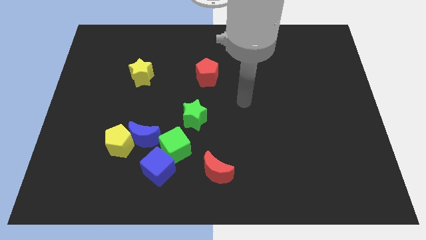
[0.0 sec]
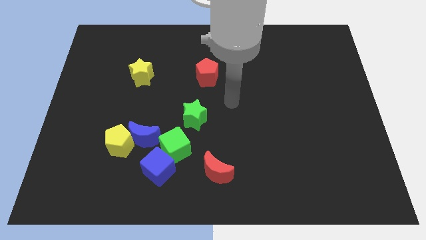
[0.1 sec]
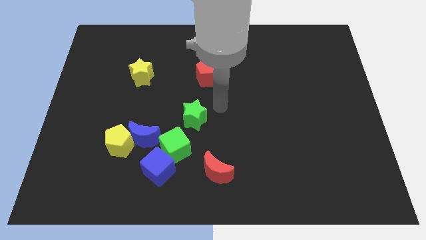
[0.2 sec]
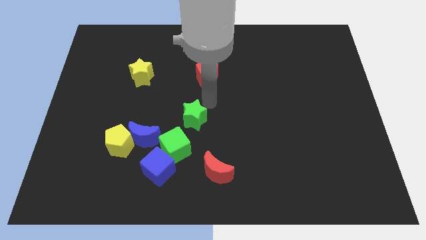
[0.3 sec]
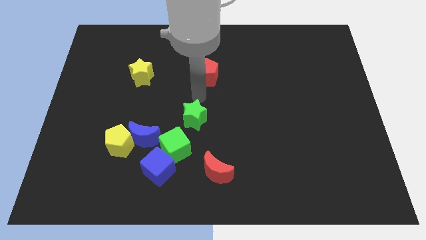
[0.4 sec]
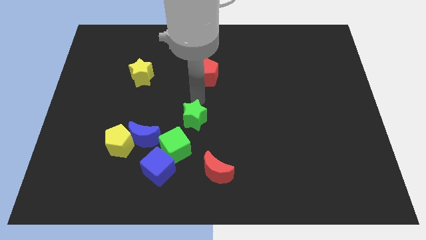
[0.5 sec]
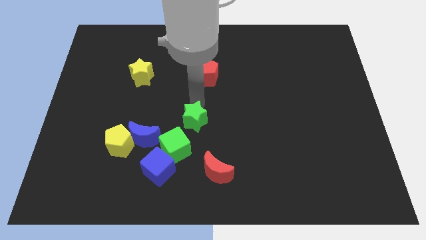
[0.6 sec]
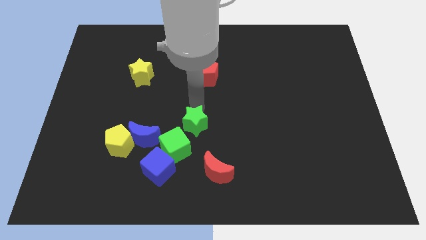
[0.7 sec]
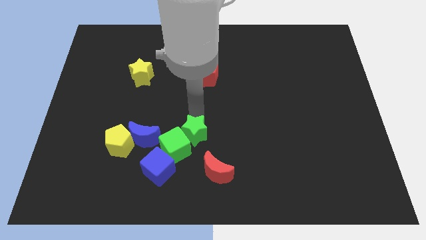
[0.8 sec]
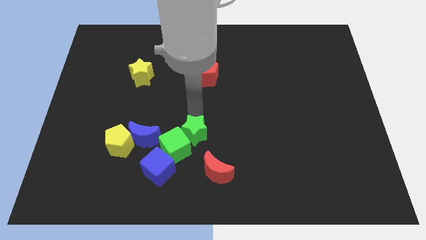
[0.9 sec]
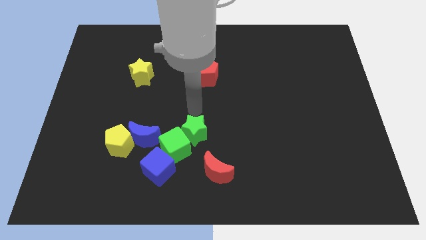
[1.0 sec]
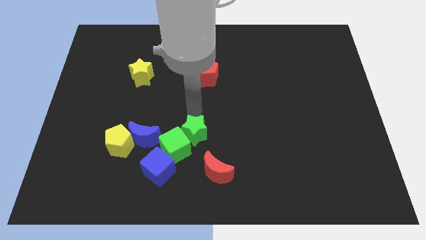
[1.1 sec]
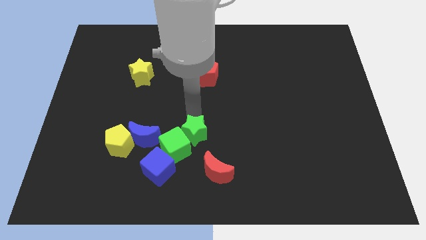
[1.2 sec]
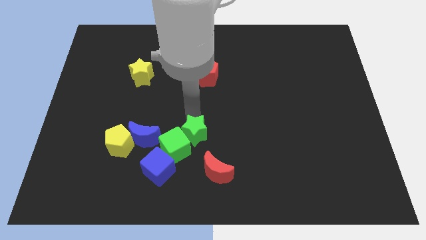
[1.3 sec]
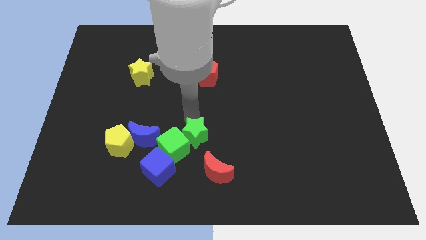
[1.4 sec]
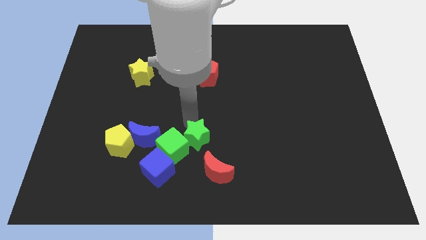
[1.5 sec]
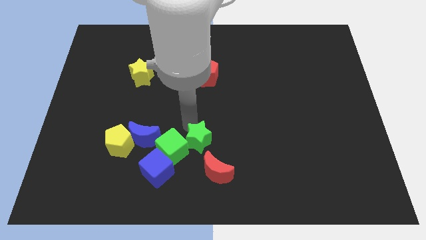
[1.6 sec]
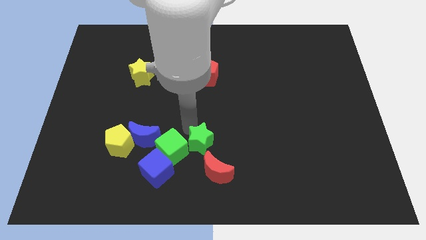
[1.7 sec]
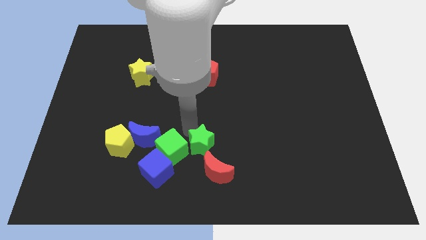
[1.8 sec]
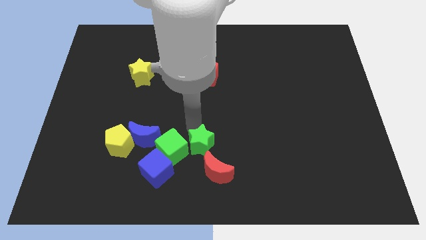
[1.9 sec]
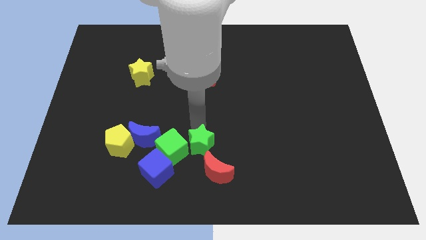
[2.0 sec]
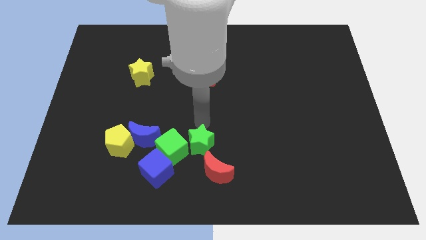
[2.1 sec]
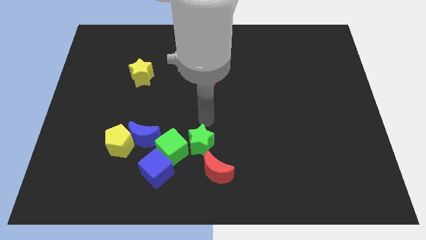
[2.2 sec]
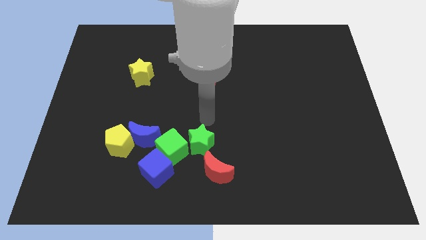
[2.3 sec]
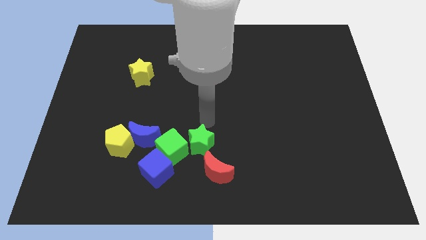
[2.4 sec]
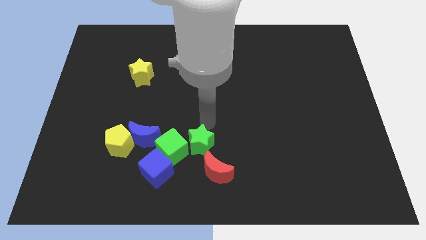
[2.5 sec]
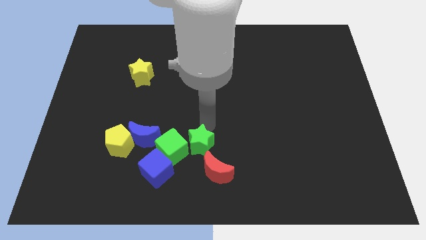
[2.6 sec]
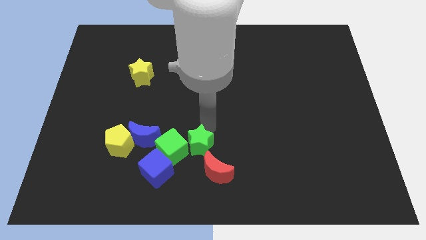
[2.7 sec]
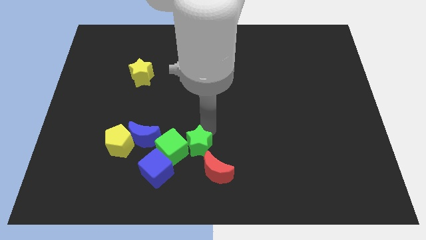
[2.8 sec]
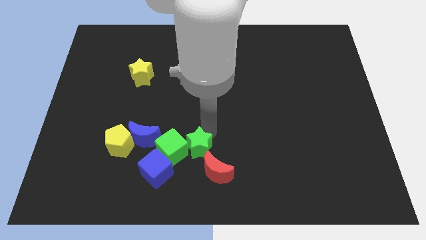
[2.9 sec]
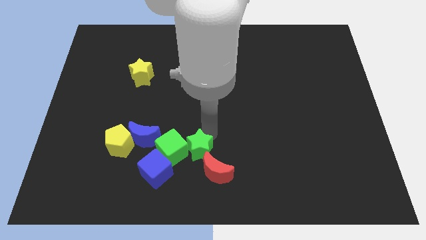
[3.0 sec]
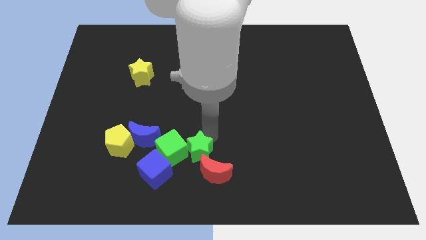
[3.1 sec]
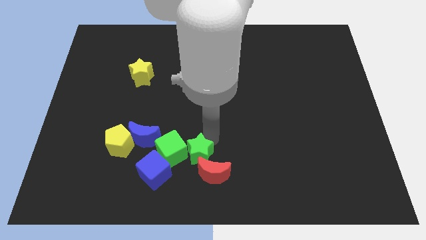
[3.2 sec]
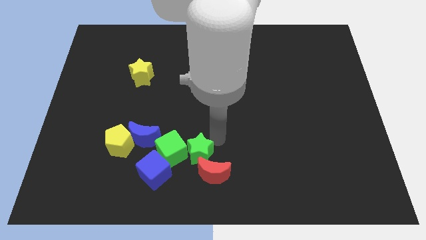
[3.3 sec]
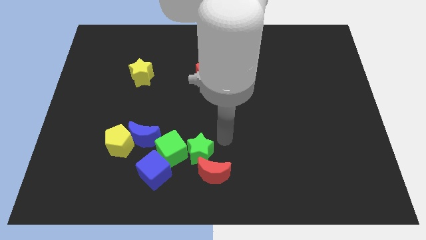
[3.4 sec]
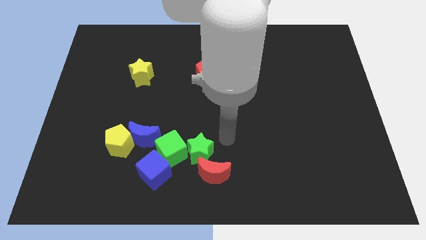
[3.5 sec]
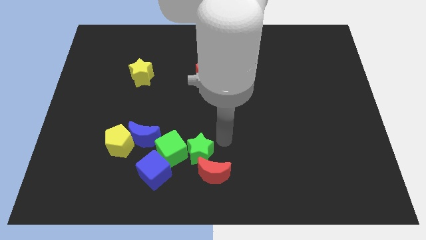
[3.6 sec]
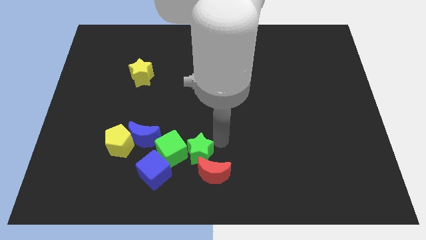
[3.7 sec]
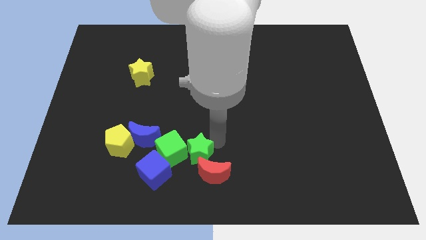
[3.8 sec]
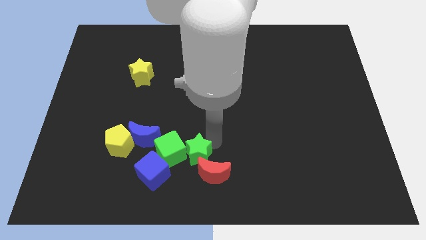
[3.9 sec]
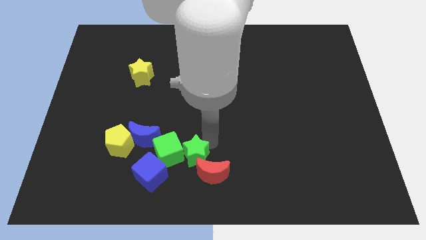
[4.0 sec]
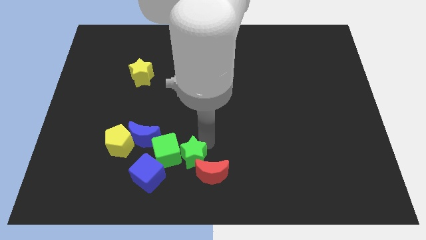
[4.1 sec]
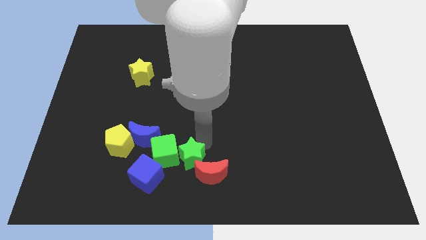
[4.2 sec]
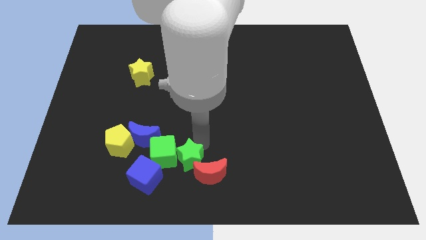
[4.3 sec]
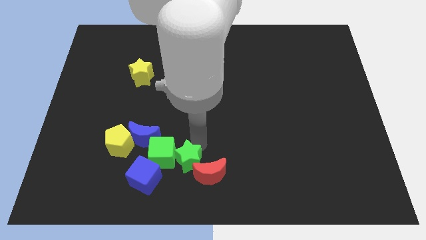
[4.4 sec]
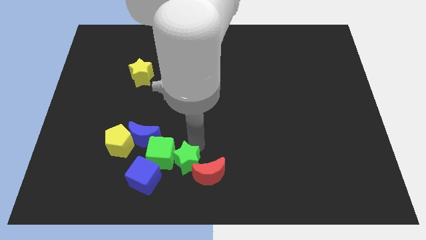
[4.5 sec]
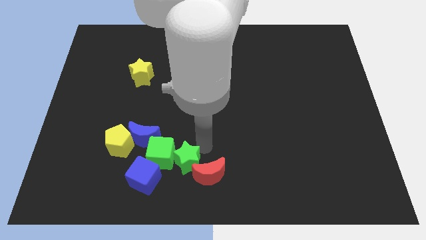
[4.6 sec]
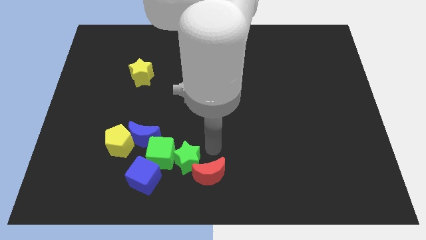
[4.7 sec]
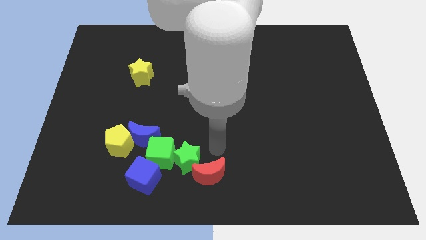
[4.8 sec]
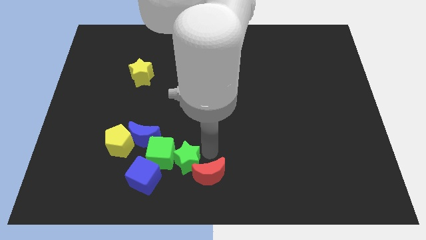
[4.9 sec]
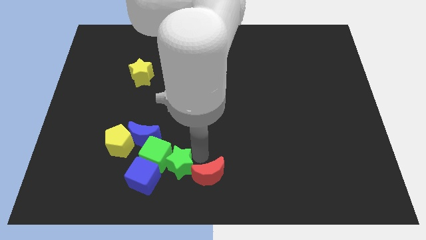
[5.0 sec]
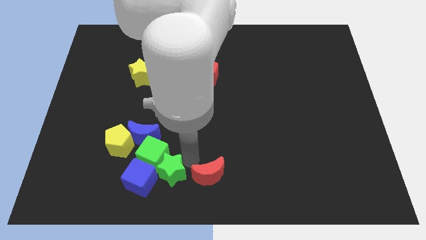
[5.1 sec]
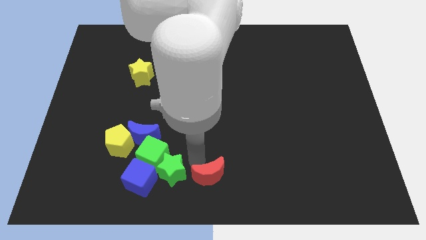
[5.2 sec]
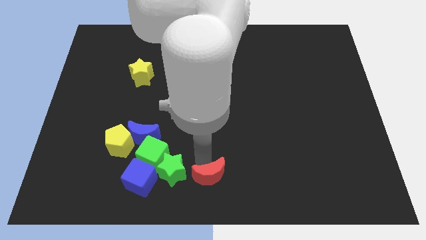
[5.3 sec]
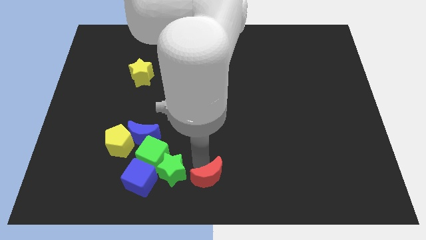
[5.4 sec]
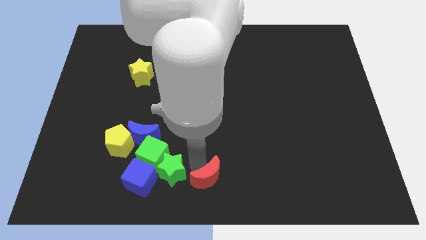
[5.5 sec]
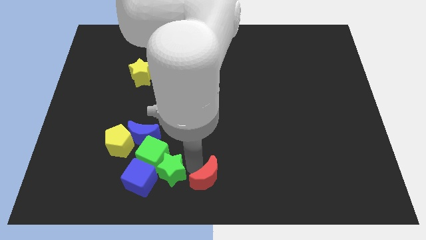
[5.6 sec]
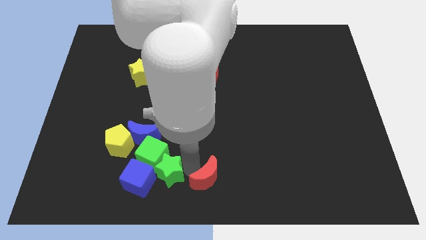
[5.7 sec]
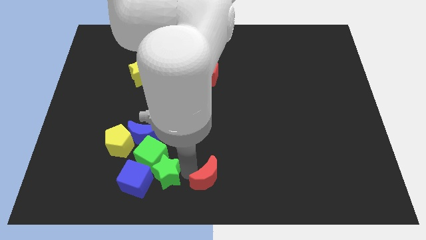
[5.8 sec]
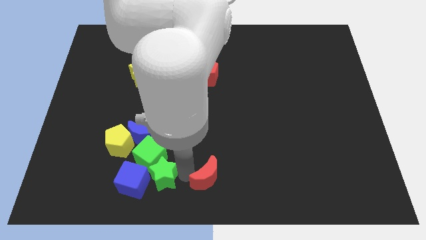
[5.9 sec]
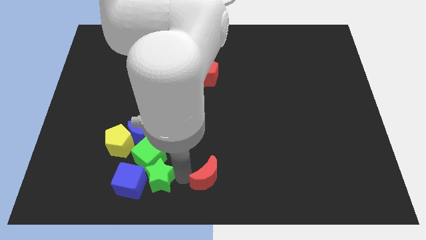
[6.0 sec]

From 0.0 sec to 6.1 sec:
put the green star next to the blue cube

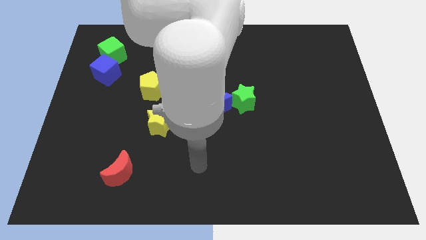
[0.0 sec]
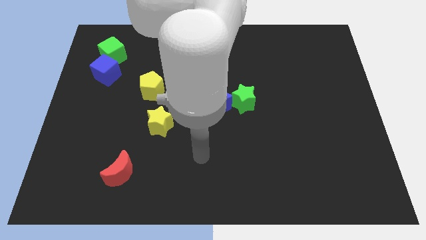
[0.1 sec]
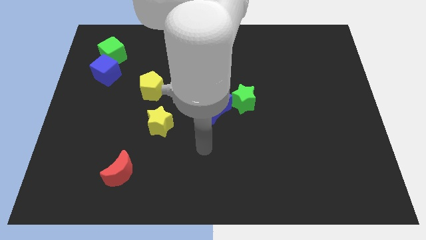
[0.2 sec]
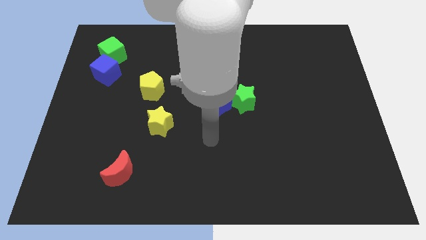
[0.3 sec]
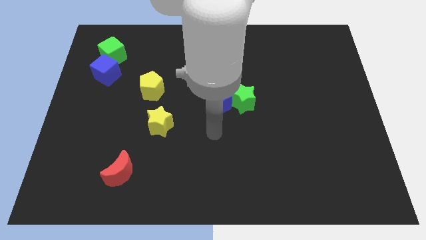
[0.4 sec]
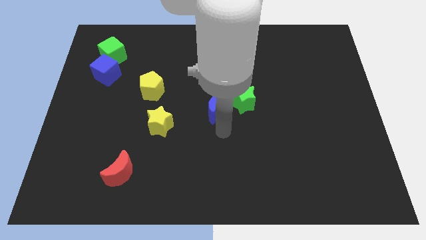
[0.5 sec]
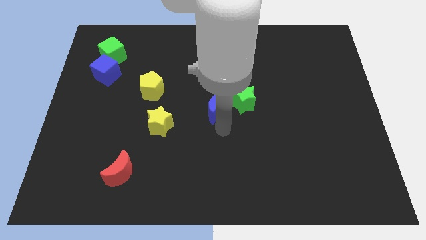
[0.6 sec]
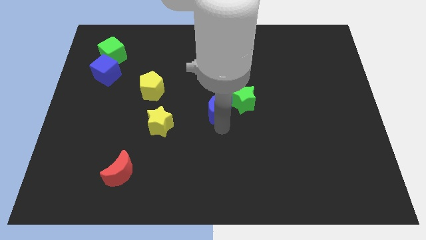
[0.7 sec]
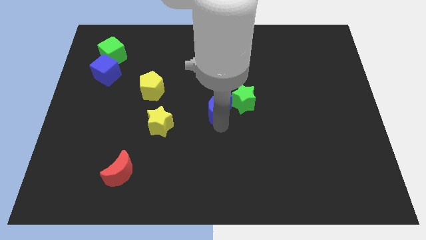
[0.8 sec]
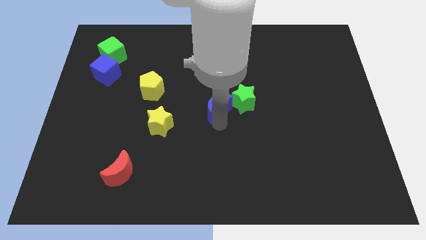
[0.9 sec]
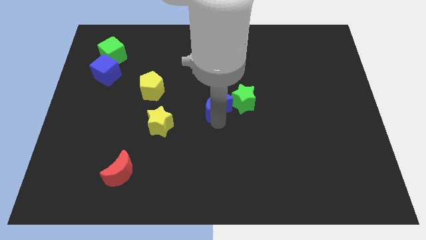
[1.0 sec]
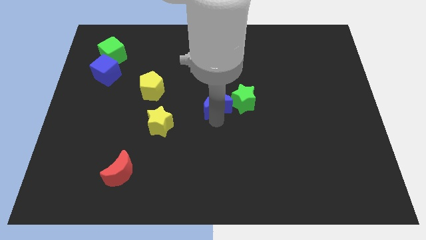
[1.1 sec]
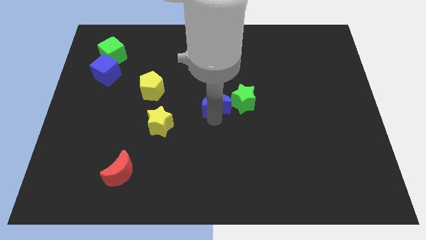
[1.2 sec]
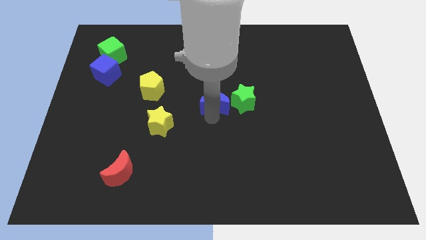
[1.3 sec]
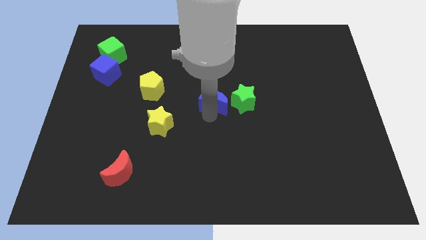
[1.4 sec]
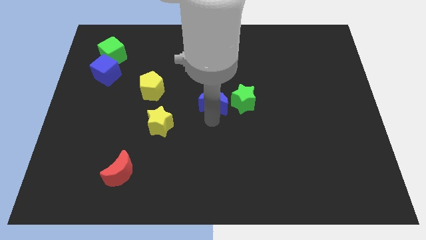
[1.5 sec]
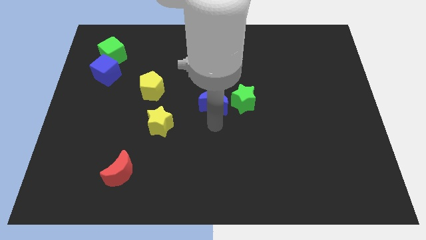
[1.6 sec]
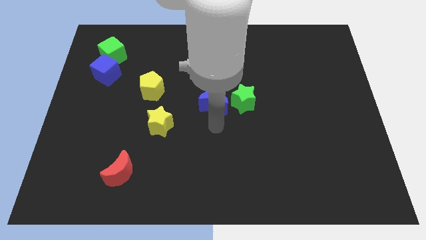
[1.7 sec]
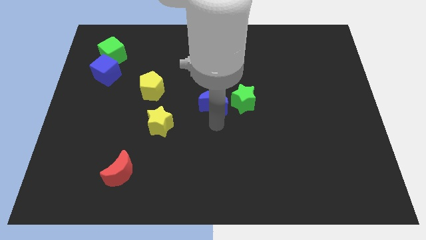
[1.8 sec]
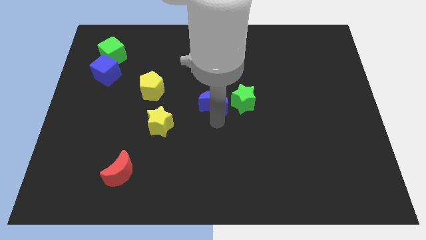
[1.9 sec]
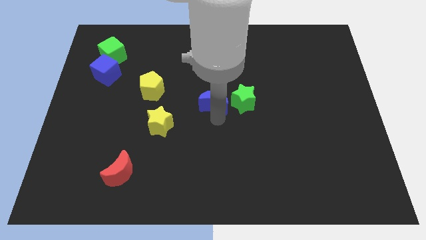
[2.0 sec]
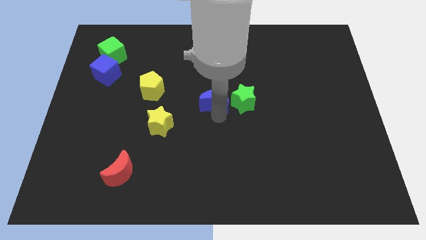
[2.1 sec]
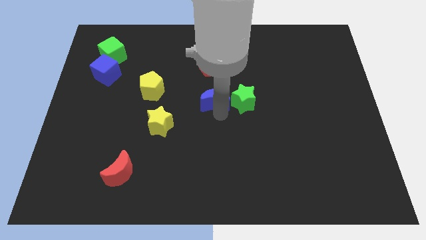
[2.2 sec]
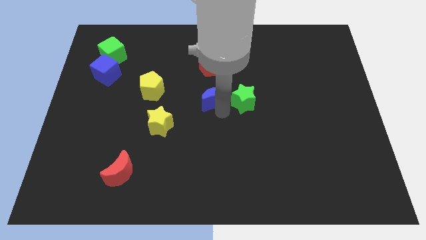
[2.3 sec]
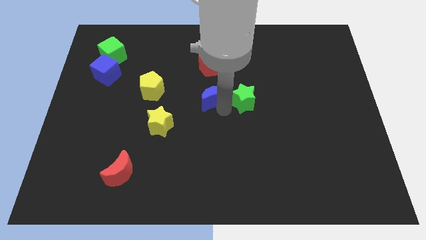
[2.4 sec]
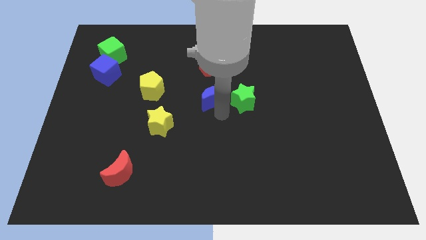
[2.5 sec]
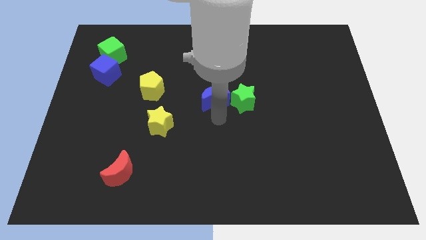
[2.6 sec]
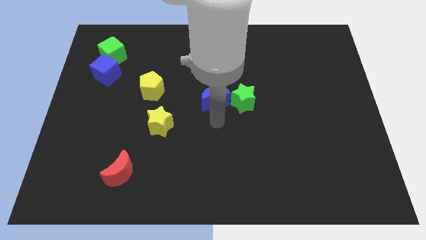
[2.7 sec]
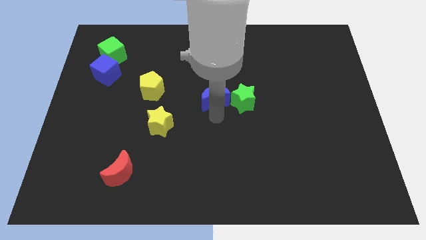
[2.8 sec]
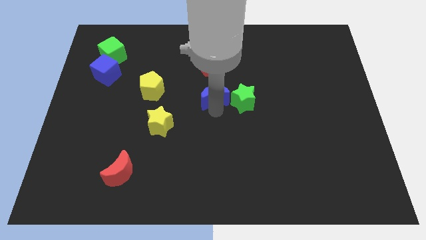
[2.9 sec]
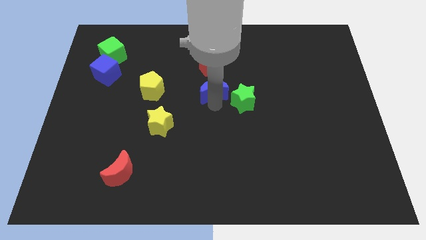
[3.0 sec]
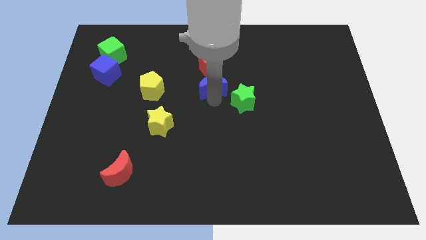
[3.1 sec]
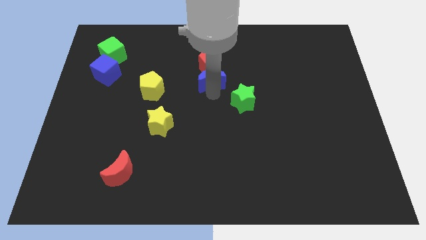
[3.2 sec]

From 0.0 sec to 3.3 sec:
move the blue moon next to the red pentagon
